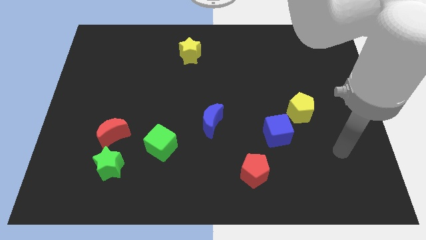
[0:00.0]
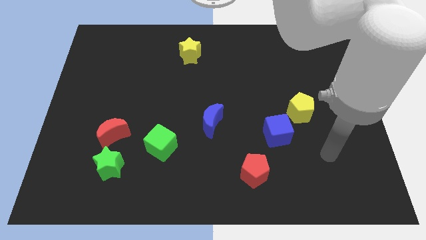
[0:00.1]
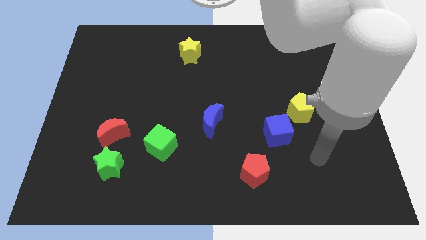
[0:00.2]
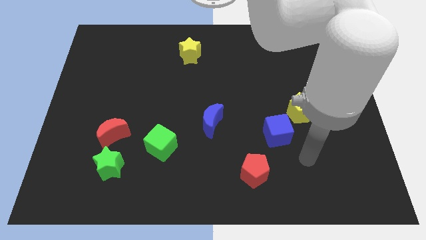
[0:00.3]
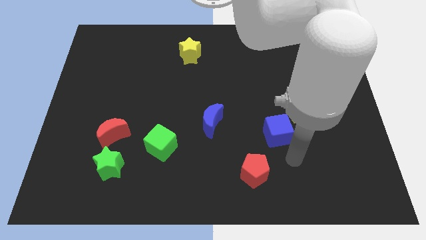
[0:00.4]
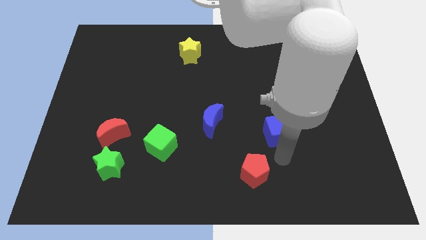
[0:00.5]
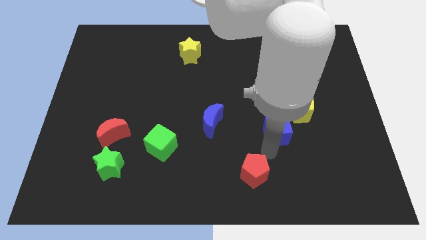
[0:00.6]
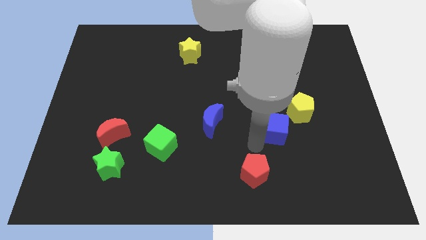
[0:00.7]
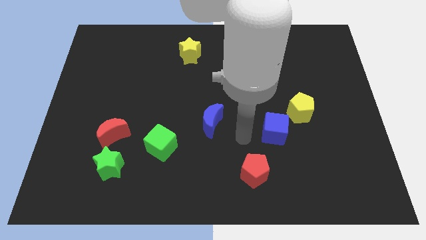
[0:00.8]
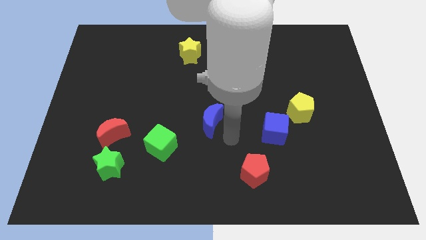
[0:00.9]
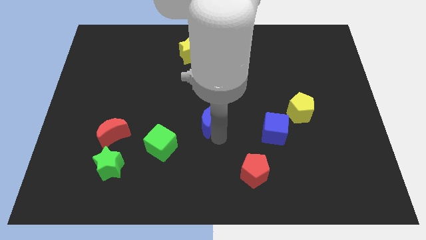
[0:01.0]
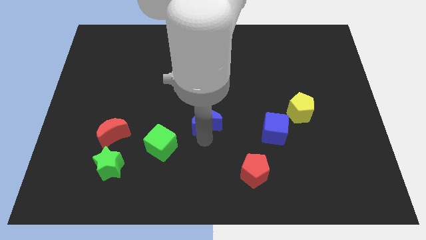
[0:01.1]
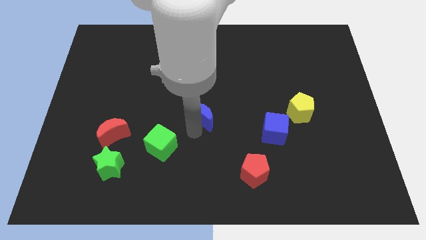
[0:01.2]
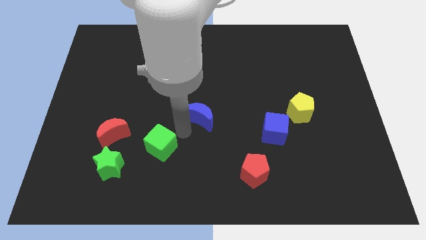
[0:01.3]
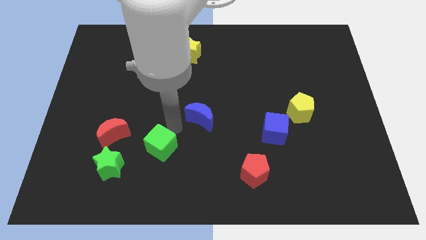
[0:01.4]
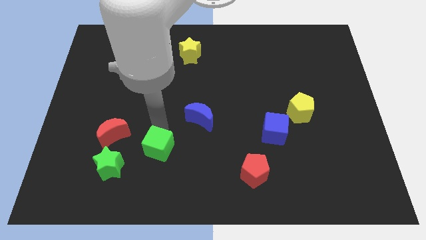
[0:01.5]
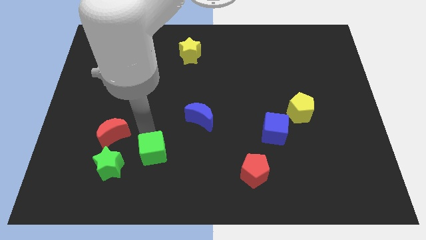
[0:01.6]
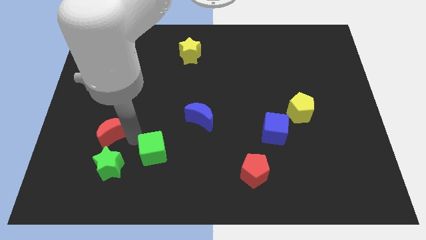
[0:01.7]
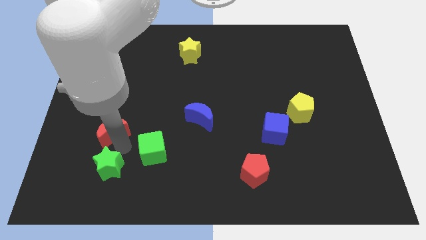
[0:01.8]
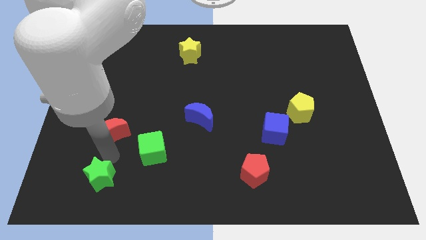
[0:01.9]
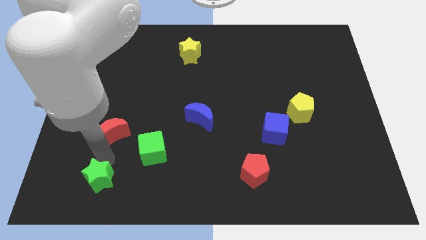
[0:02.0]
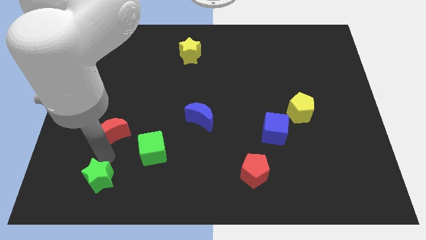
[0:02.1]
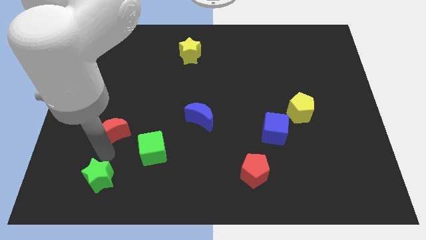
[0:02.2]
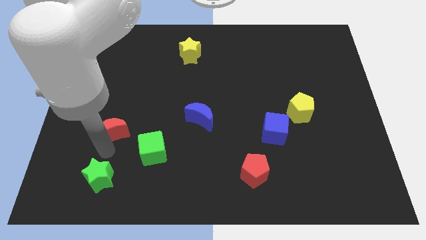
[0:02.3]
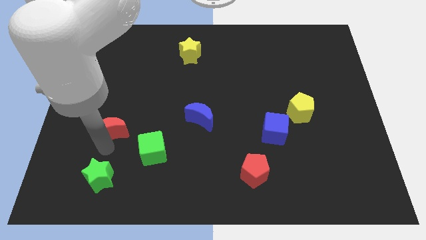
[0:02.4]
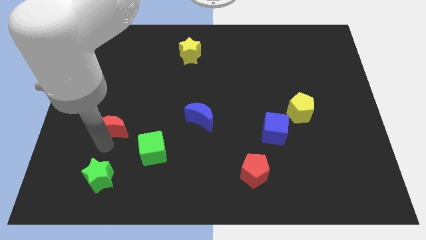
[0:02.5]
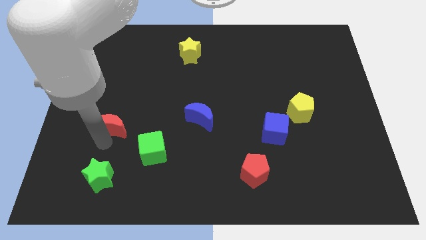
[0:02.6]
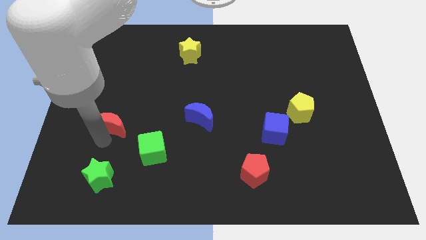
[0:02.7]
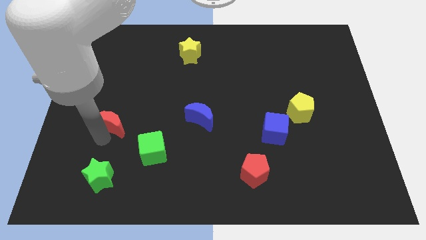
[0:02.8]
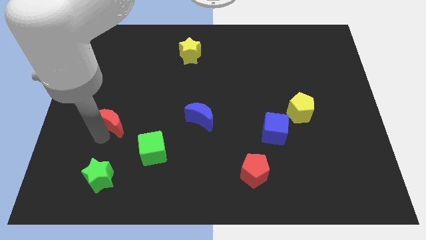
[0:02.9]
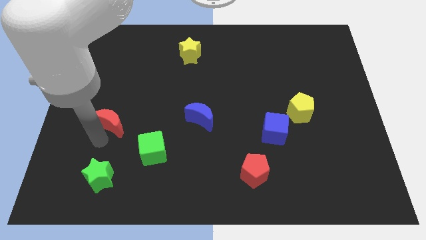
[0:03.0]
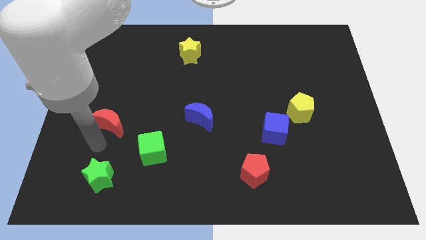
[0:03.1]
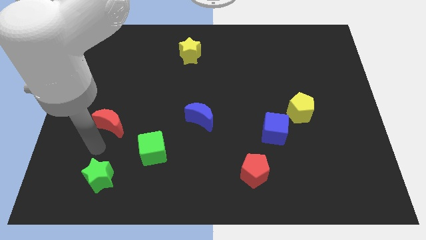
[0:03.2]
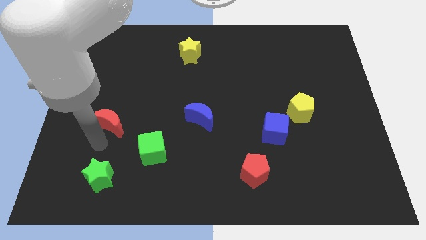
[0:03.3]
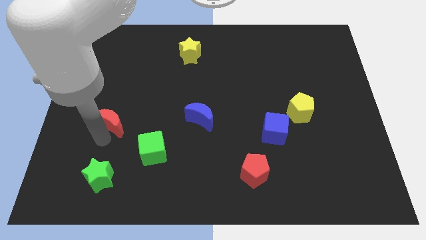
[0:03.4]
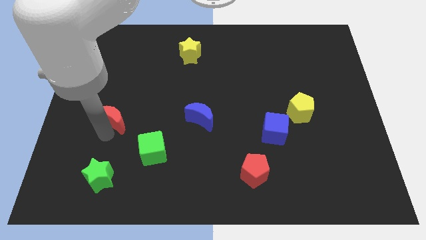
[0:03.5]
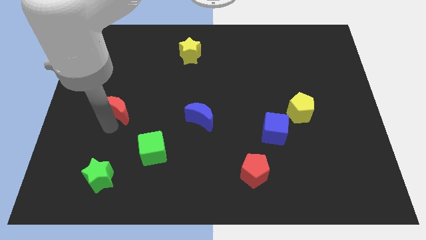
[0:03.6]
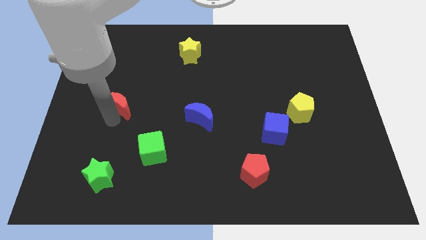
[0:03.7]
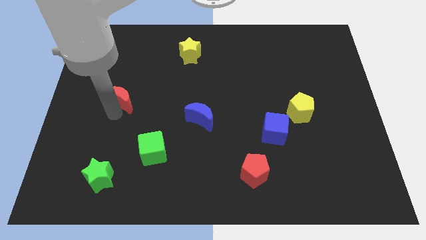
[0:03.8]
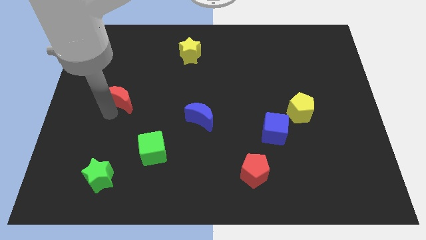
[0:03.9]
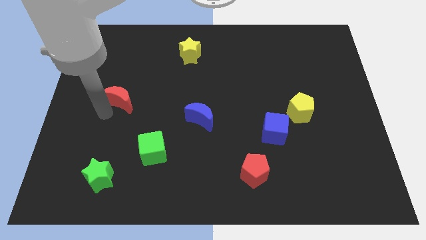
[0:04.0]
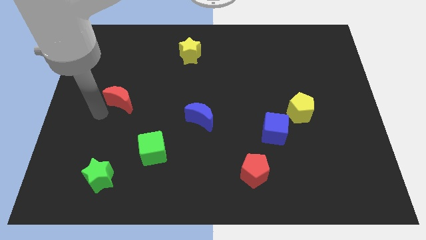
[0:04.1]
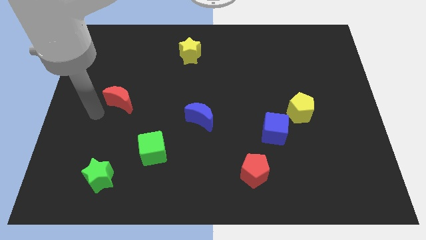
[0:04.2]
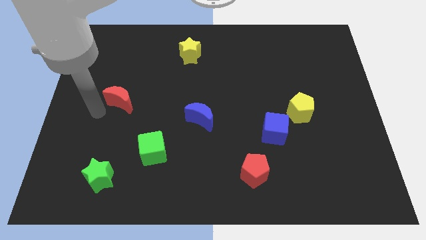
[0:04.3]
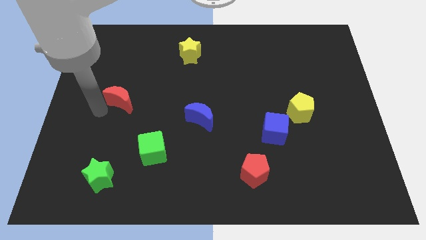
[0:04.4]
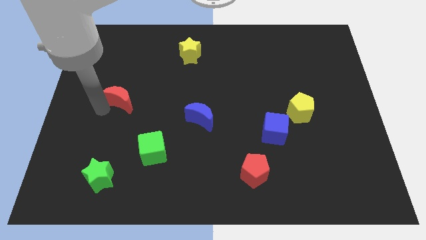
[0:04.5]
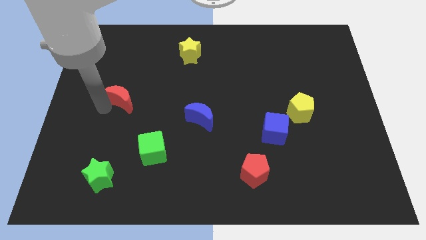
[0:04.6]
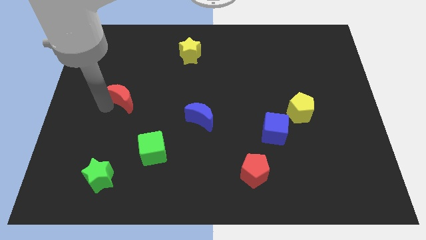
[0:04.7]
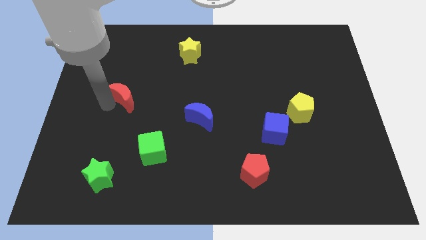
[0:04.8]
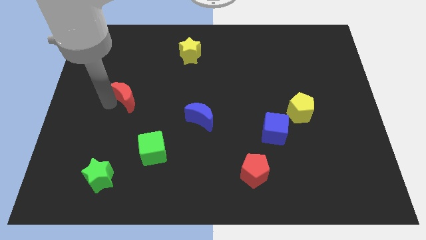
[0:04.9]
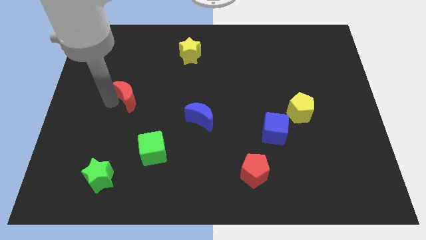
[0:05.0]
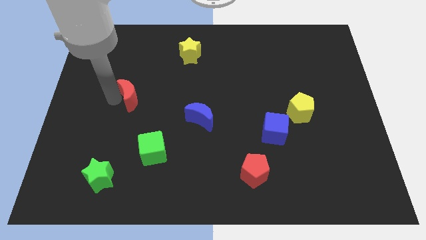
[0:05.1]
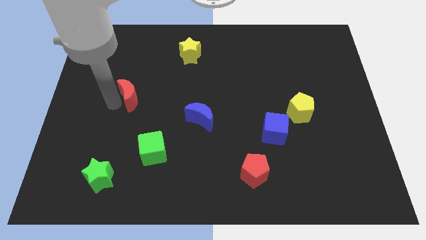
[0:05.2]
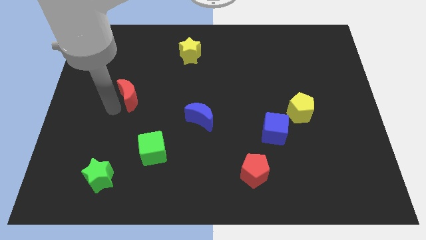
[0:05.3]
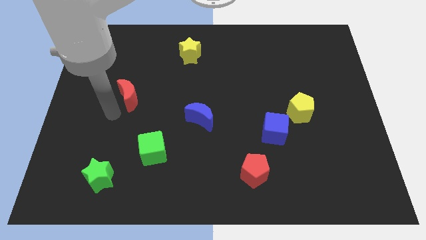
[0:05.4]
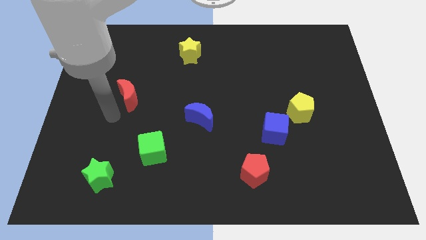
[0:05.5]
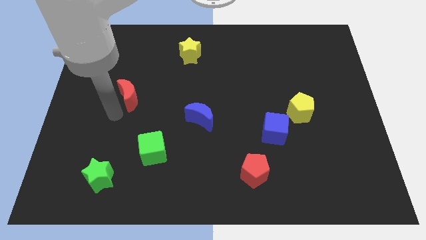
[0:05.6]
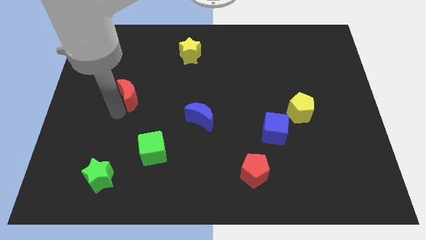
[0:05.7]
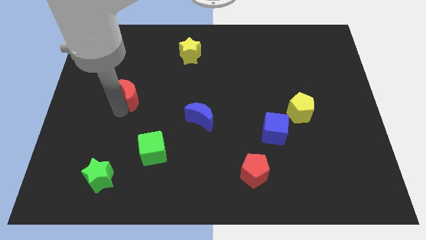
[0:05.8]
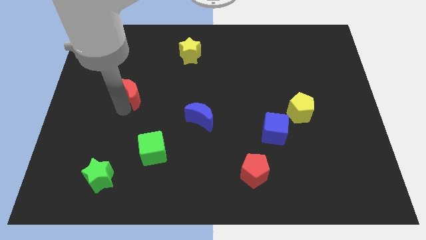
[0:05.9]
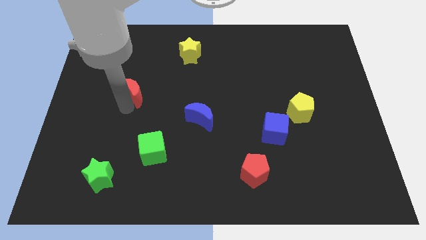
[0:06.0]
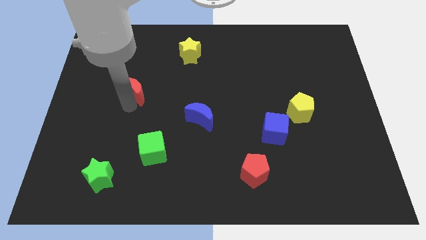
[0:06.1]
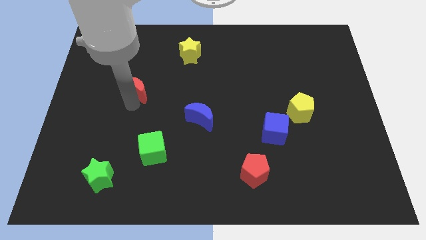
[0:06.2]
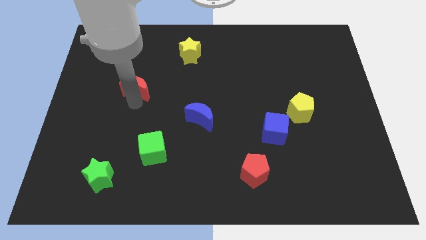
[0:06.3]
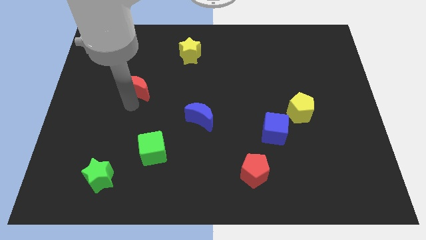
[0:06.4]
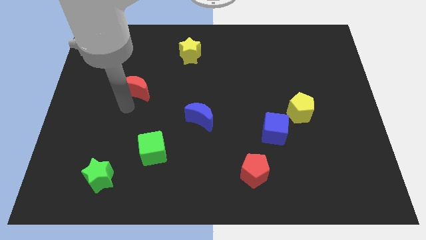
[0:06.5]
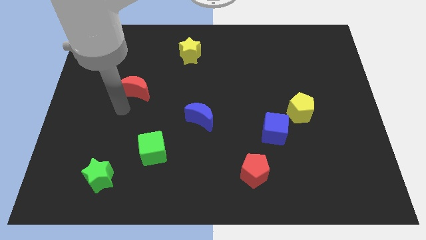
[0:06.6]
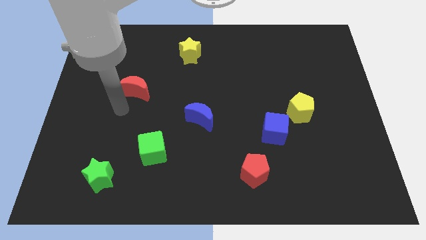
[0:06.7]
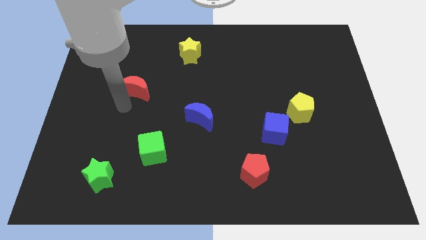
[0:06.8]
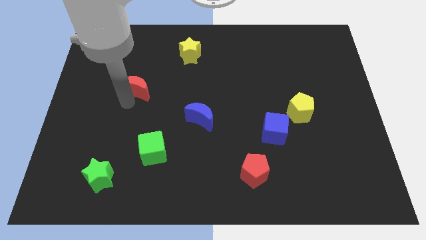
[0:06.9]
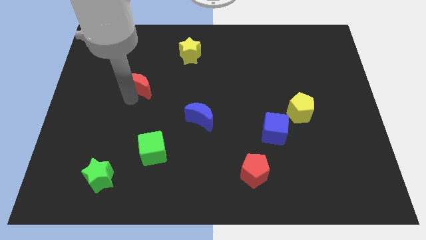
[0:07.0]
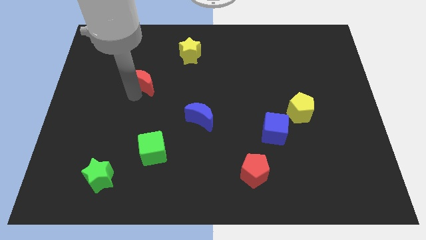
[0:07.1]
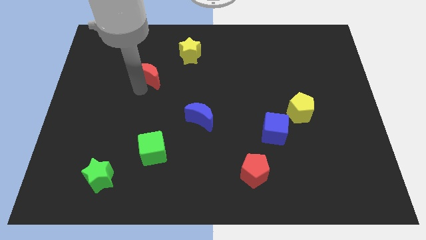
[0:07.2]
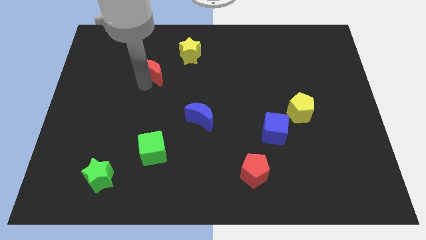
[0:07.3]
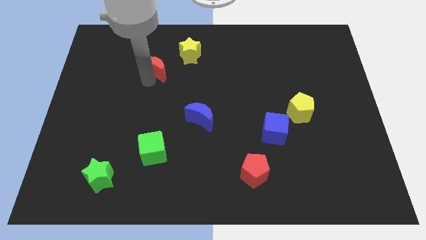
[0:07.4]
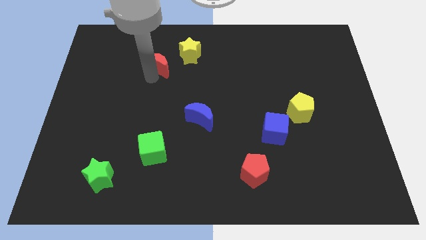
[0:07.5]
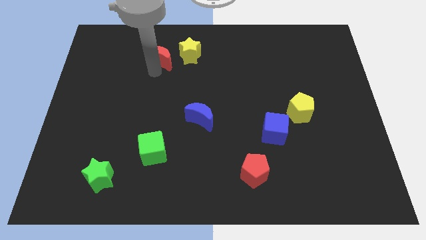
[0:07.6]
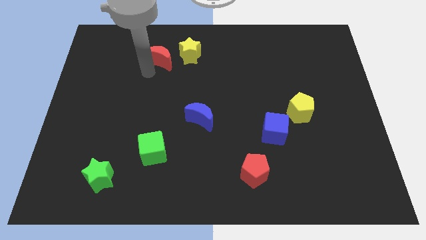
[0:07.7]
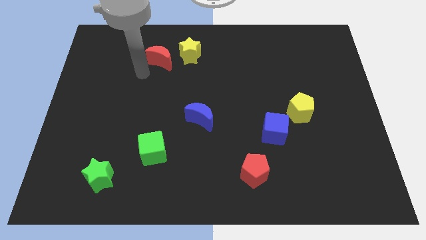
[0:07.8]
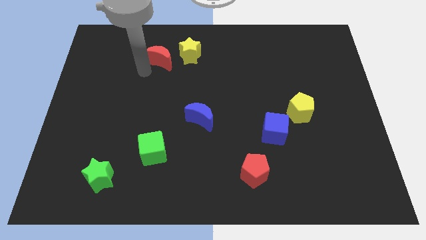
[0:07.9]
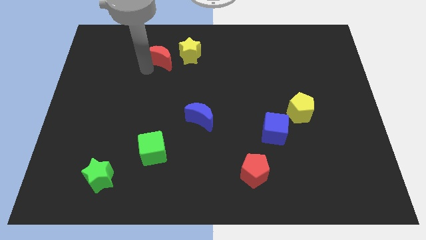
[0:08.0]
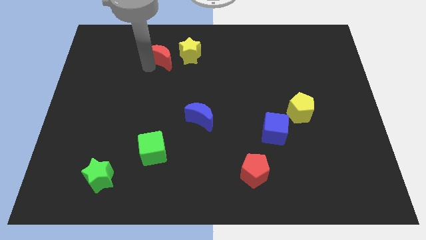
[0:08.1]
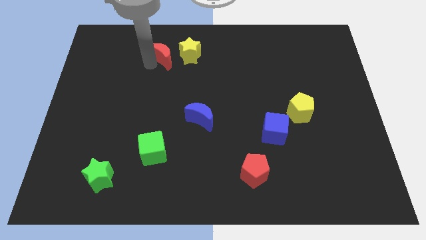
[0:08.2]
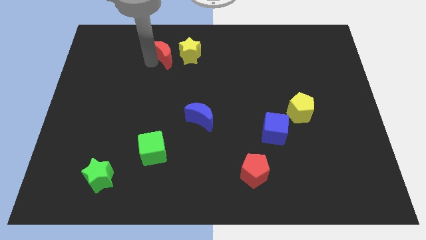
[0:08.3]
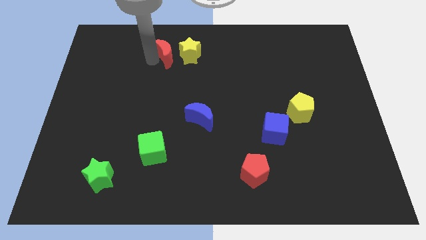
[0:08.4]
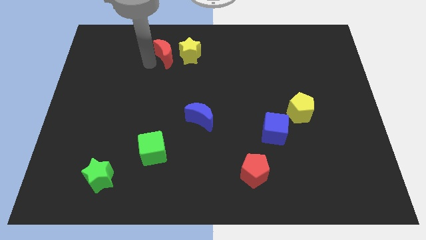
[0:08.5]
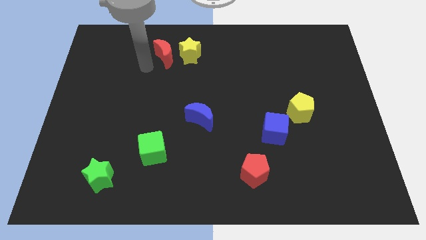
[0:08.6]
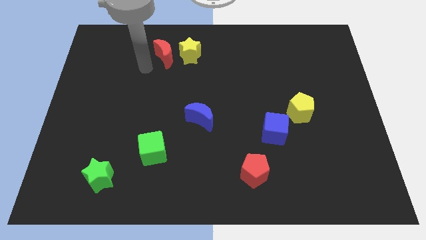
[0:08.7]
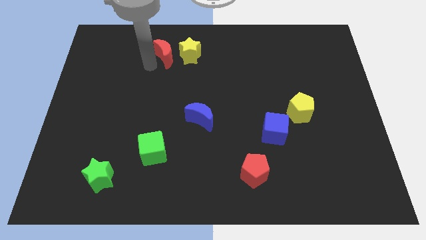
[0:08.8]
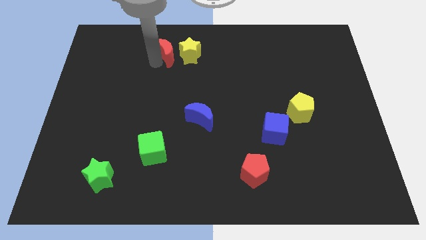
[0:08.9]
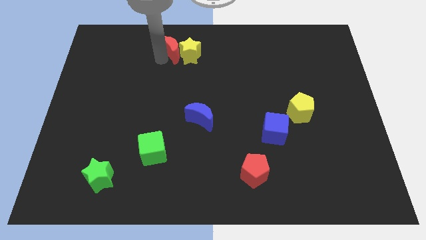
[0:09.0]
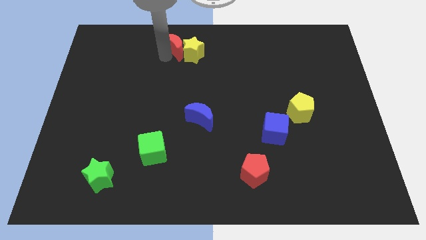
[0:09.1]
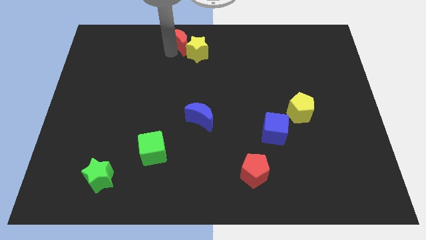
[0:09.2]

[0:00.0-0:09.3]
slide the red moon to the top
